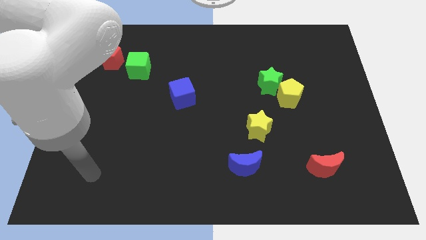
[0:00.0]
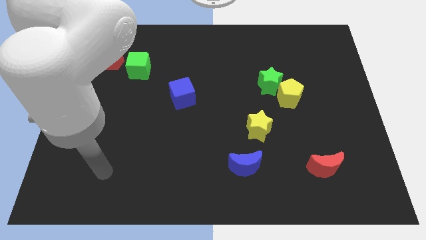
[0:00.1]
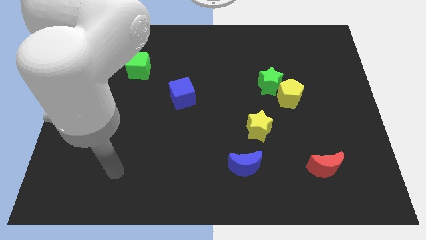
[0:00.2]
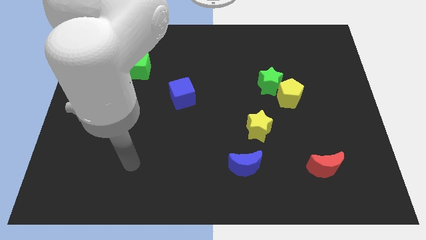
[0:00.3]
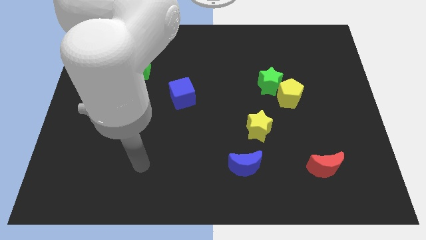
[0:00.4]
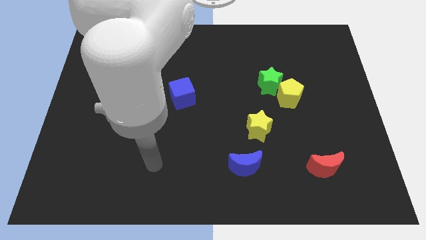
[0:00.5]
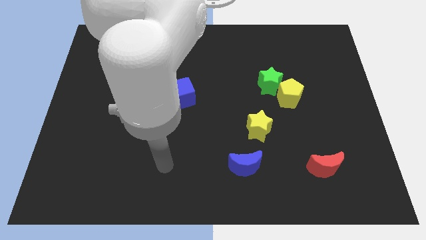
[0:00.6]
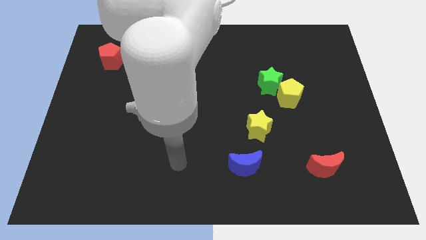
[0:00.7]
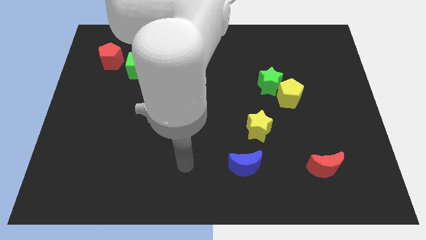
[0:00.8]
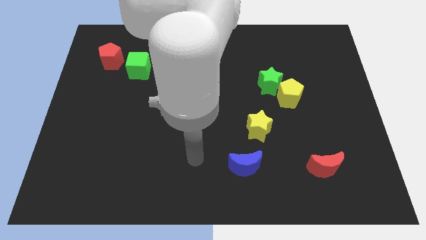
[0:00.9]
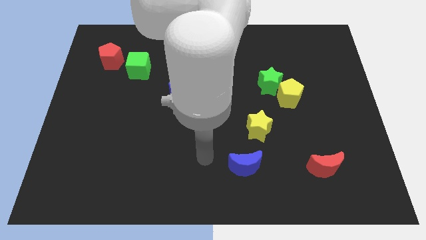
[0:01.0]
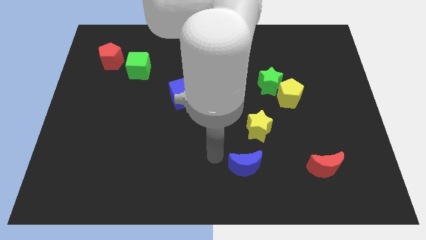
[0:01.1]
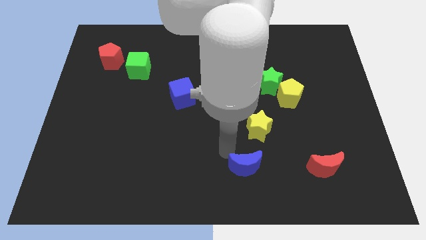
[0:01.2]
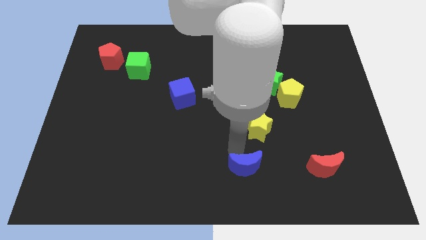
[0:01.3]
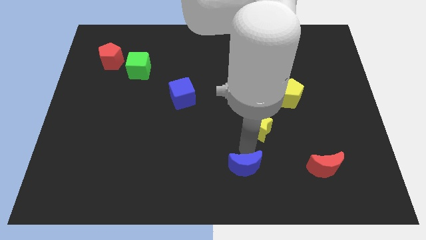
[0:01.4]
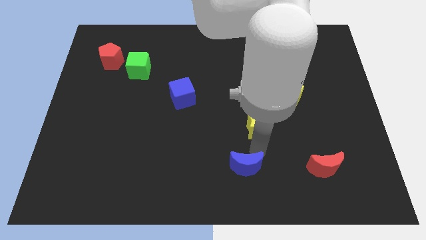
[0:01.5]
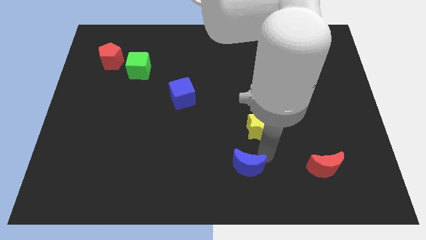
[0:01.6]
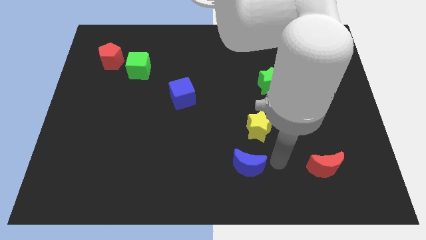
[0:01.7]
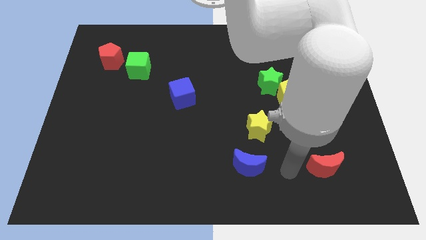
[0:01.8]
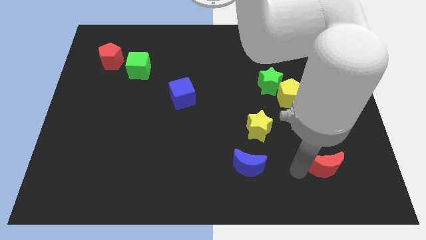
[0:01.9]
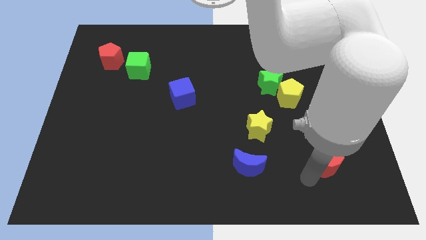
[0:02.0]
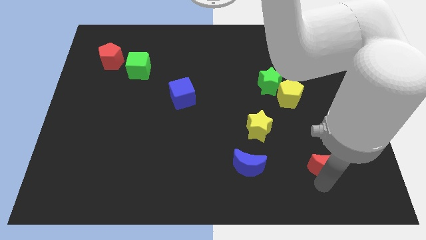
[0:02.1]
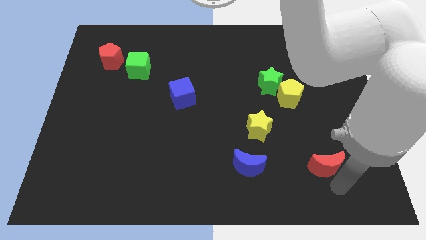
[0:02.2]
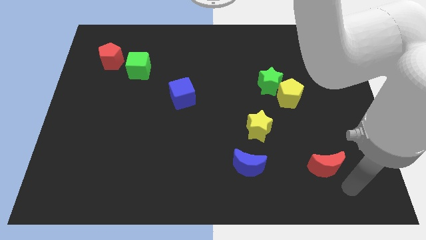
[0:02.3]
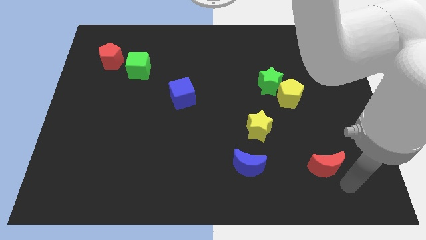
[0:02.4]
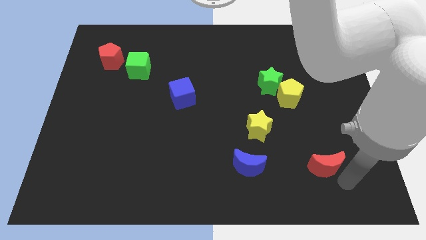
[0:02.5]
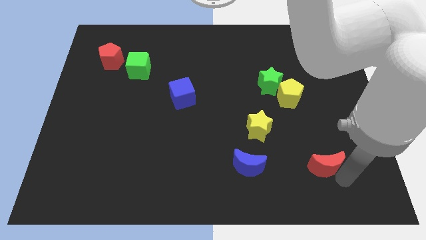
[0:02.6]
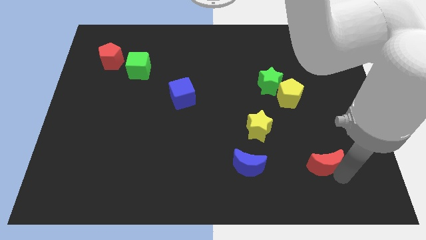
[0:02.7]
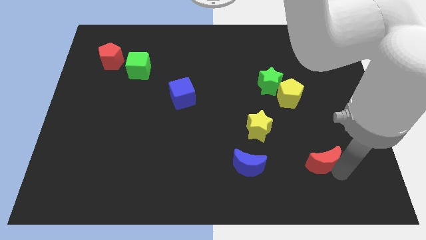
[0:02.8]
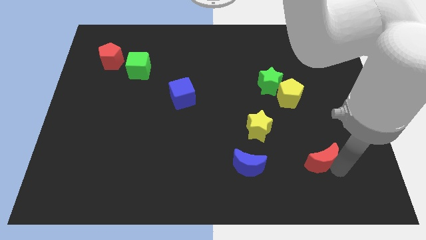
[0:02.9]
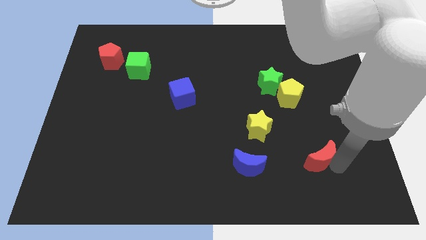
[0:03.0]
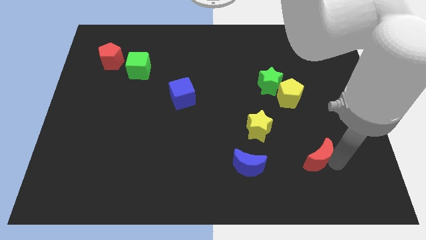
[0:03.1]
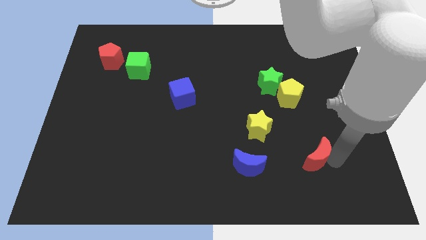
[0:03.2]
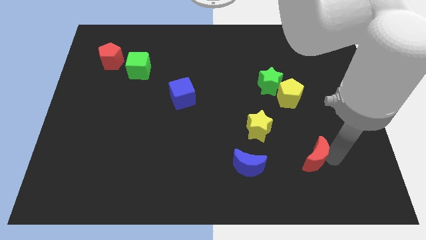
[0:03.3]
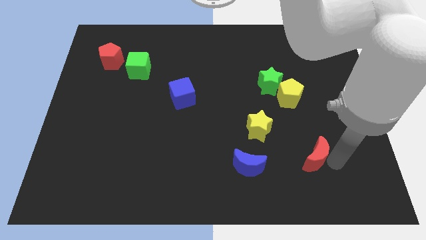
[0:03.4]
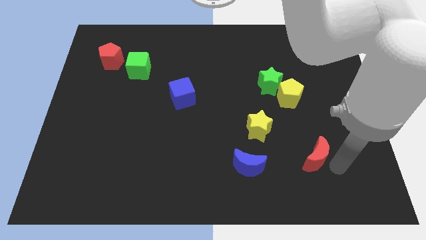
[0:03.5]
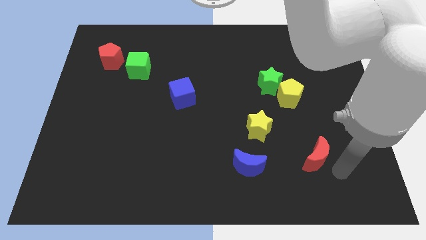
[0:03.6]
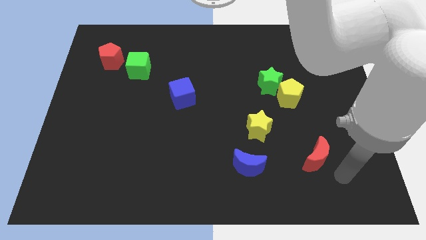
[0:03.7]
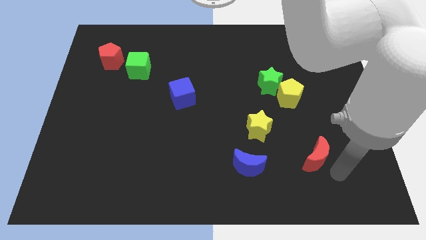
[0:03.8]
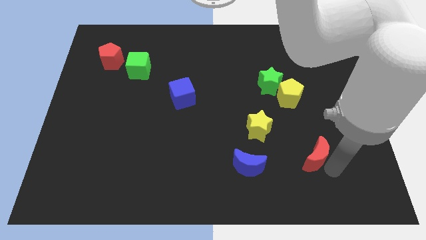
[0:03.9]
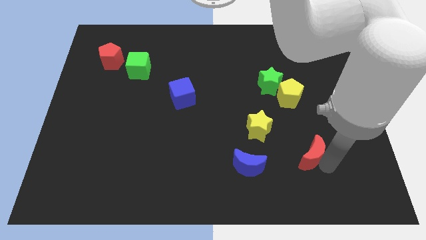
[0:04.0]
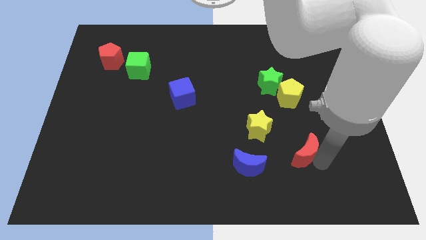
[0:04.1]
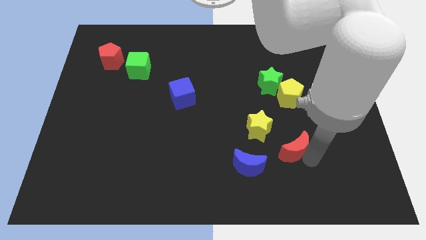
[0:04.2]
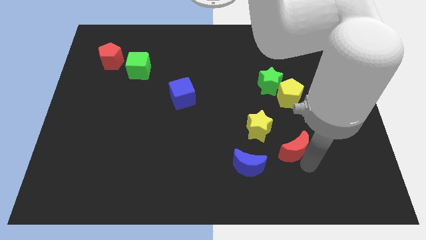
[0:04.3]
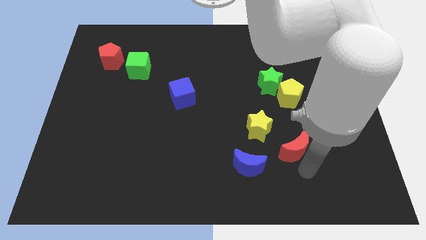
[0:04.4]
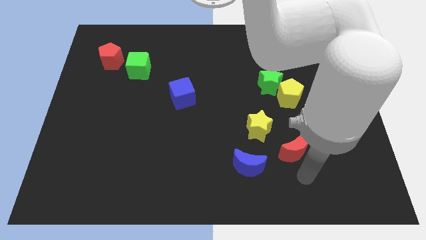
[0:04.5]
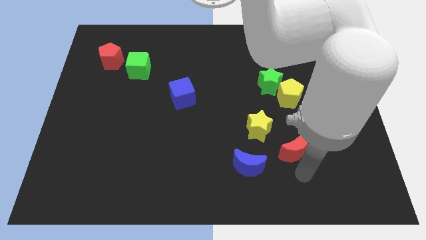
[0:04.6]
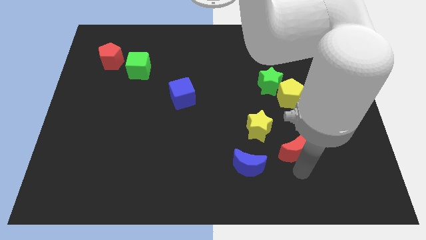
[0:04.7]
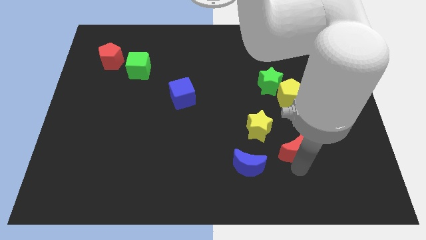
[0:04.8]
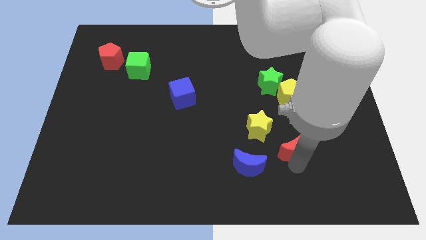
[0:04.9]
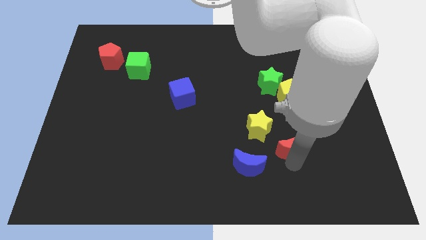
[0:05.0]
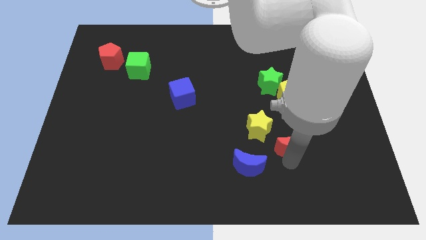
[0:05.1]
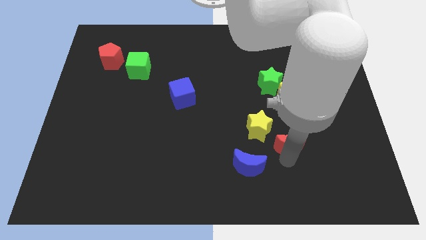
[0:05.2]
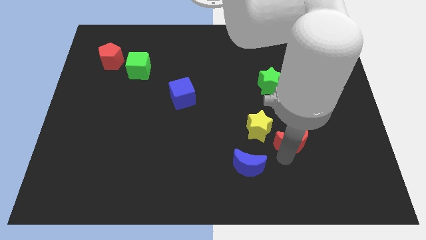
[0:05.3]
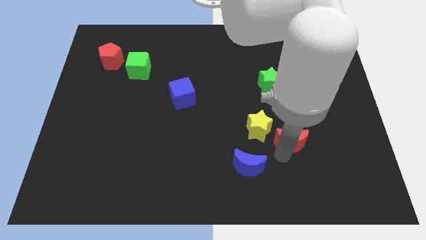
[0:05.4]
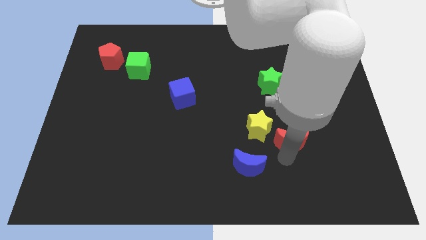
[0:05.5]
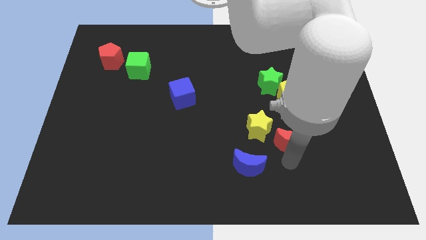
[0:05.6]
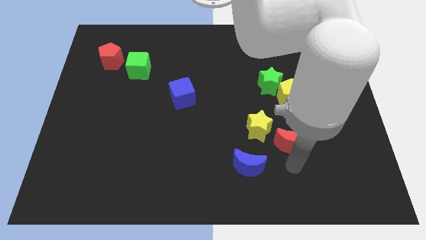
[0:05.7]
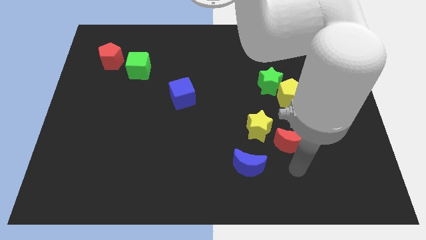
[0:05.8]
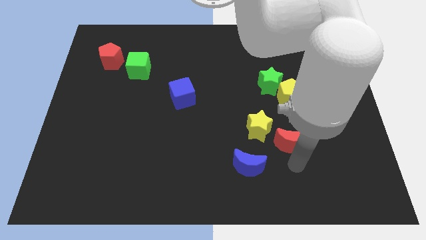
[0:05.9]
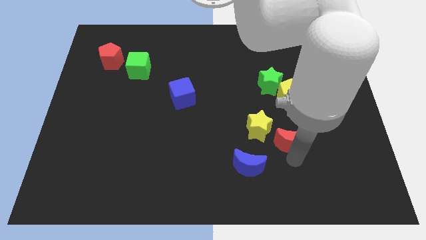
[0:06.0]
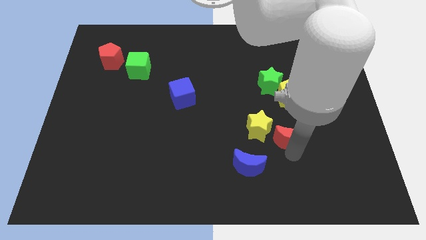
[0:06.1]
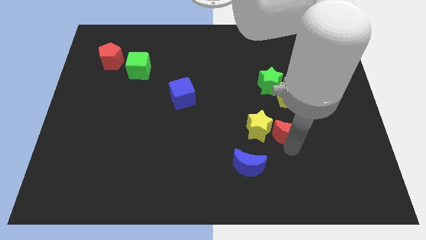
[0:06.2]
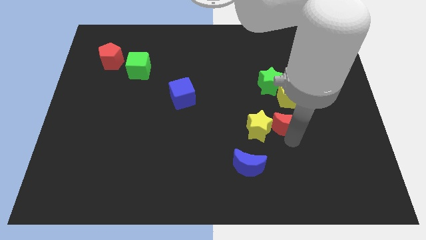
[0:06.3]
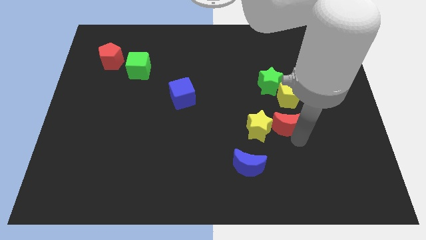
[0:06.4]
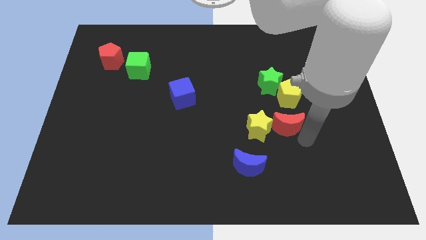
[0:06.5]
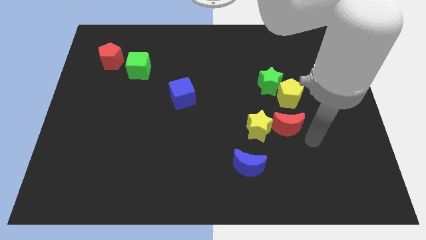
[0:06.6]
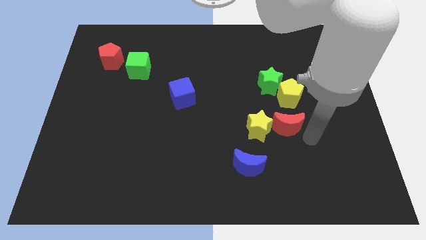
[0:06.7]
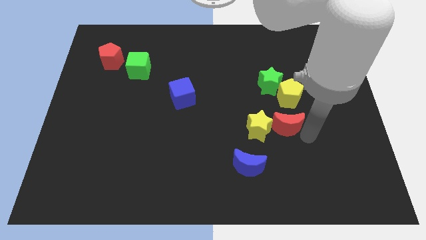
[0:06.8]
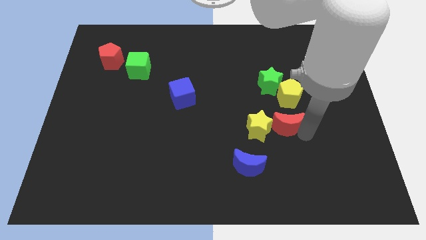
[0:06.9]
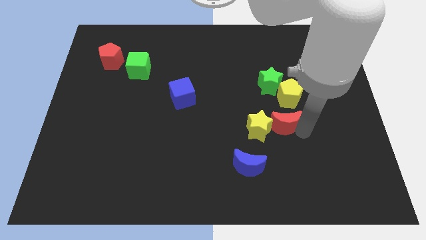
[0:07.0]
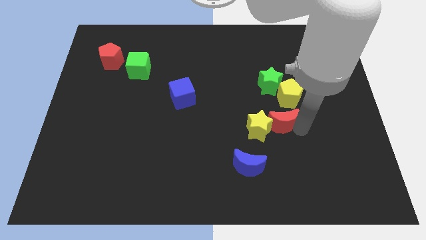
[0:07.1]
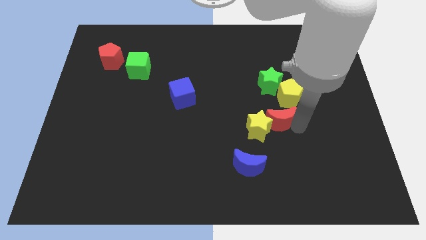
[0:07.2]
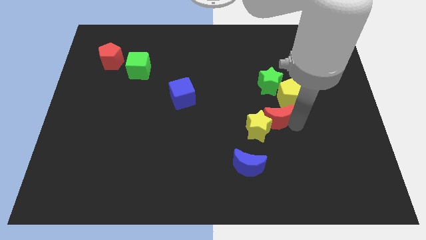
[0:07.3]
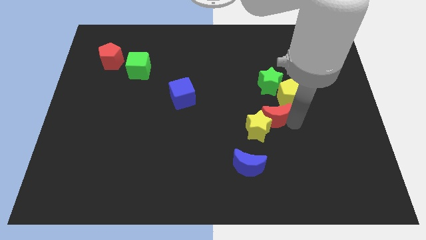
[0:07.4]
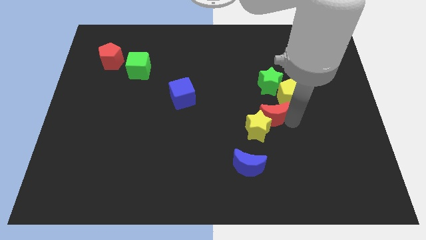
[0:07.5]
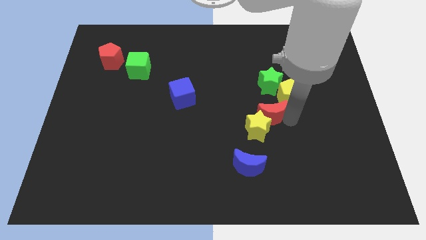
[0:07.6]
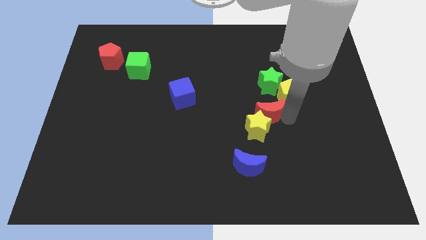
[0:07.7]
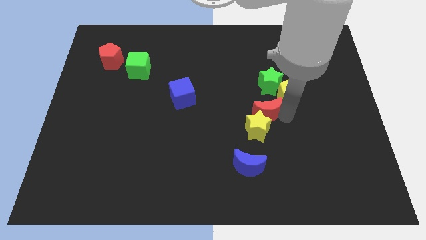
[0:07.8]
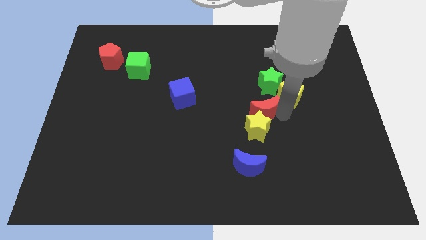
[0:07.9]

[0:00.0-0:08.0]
move the red moon to the center of the board
